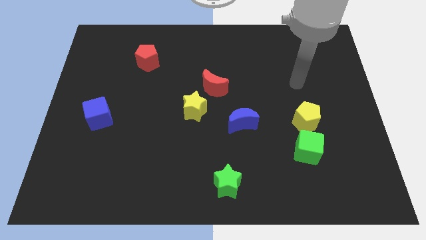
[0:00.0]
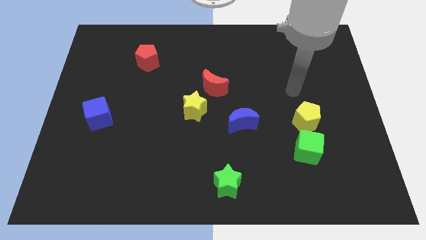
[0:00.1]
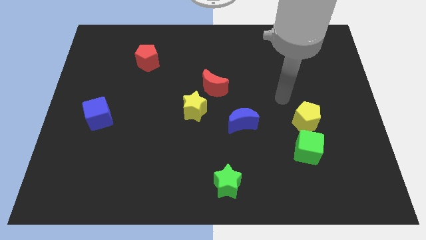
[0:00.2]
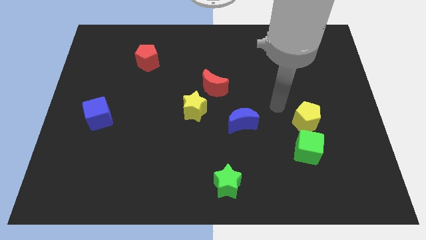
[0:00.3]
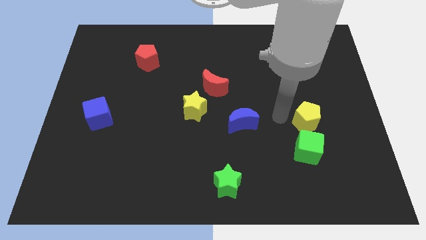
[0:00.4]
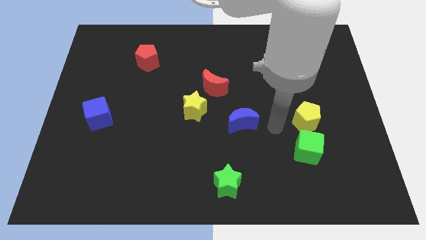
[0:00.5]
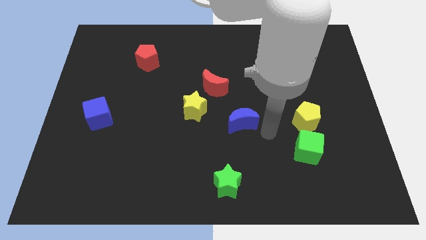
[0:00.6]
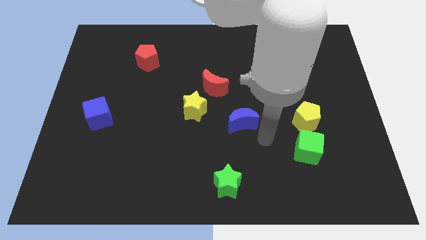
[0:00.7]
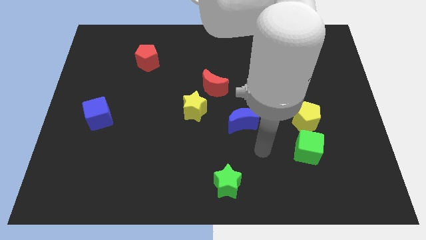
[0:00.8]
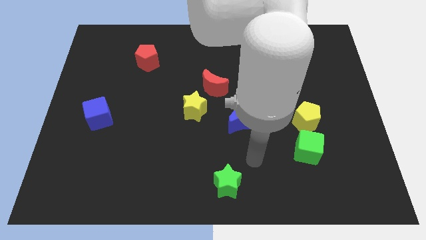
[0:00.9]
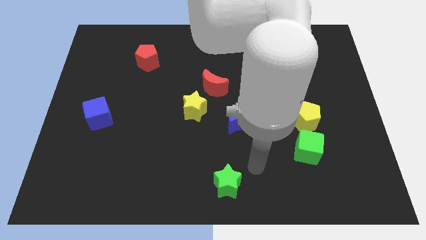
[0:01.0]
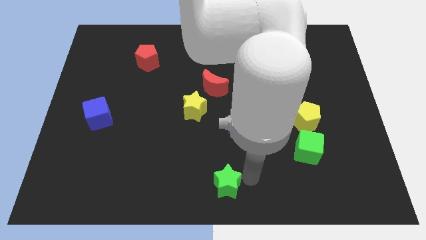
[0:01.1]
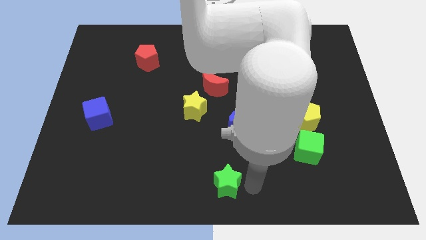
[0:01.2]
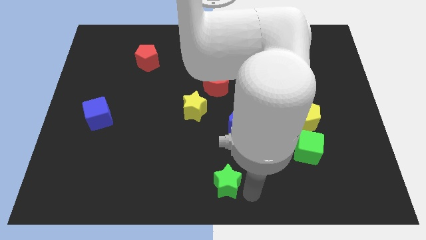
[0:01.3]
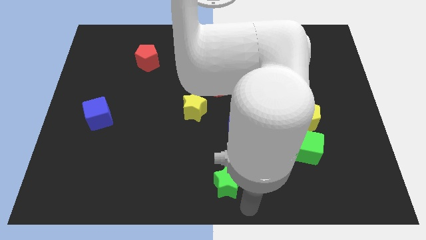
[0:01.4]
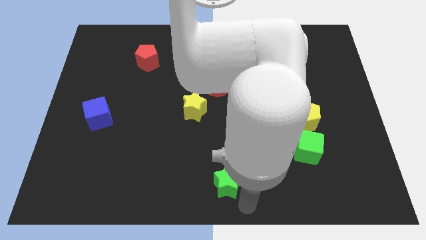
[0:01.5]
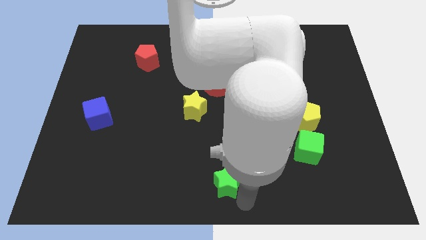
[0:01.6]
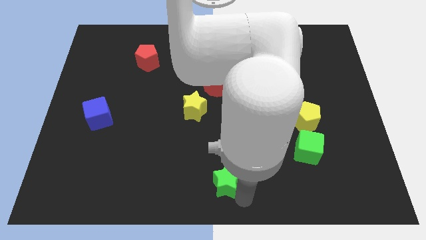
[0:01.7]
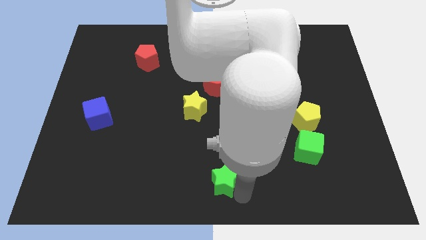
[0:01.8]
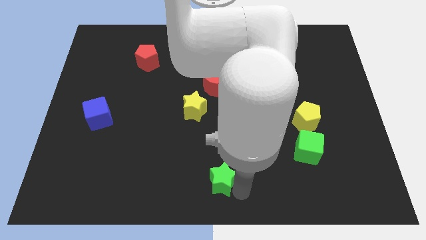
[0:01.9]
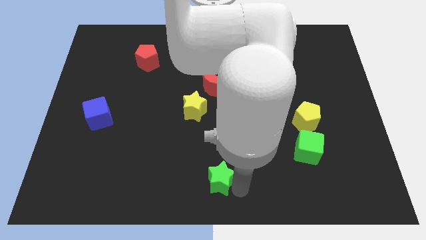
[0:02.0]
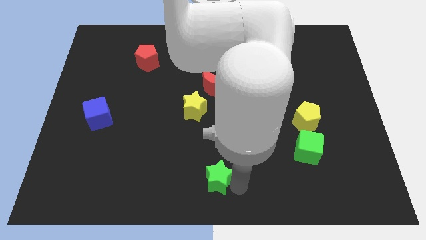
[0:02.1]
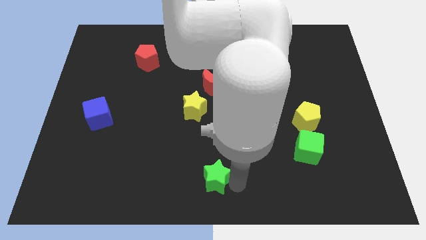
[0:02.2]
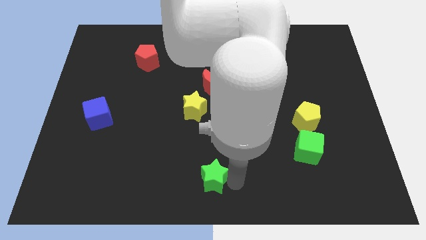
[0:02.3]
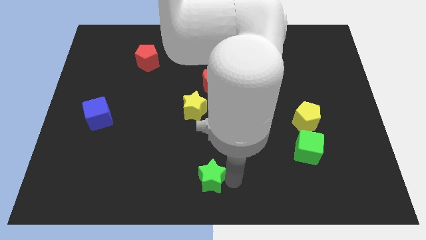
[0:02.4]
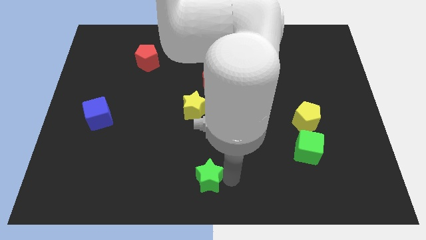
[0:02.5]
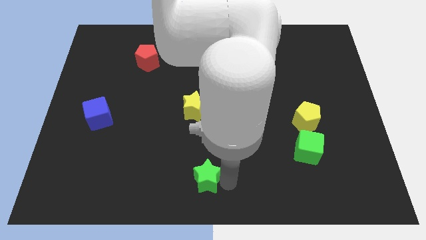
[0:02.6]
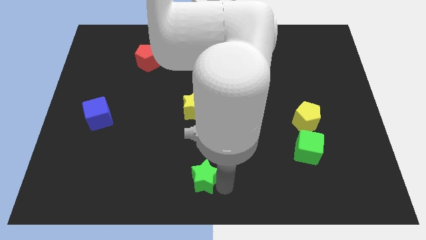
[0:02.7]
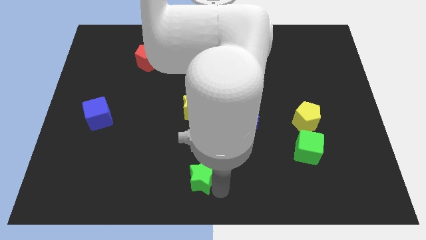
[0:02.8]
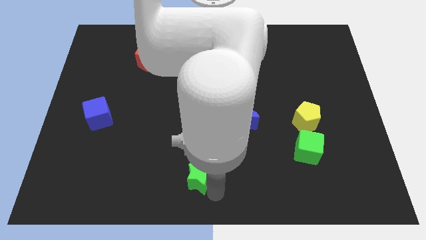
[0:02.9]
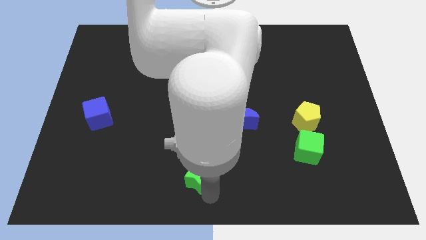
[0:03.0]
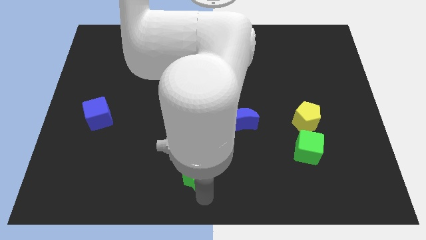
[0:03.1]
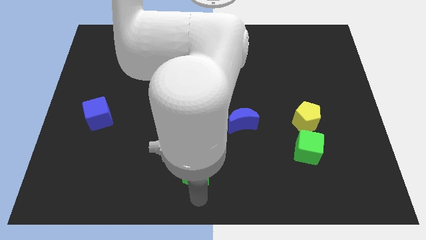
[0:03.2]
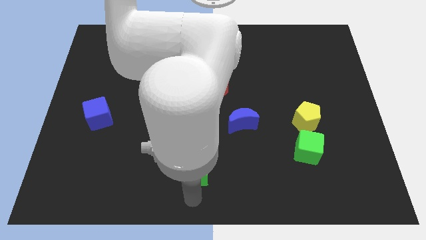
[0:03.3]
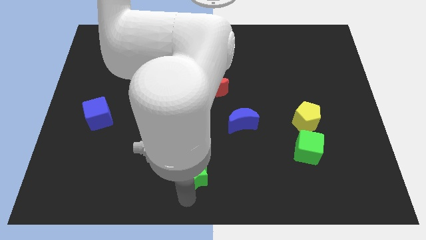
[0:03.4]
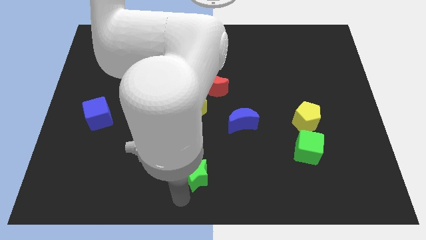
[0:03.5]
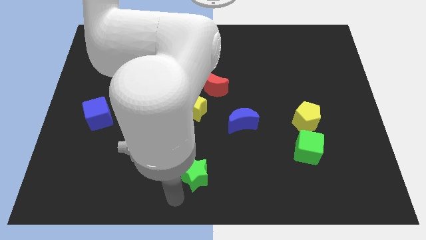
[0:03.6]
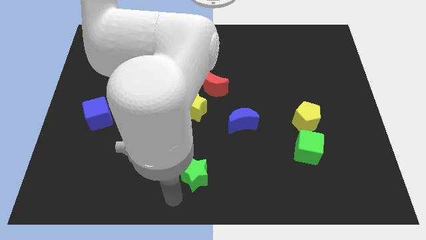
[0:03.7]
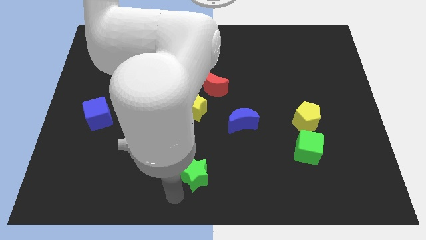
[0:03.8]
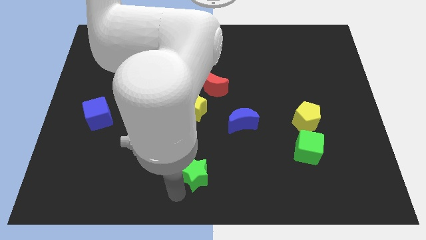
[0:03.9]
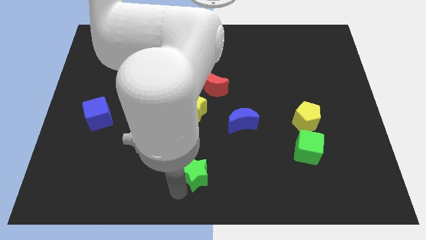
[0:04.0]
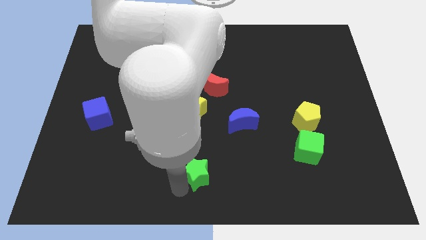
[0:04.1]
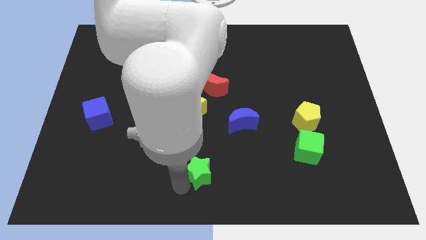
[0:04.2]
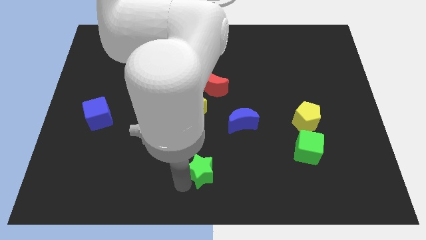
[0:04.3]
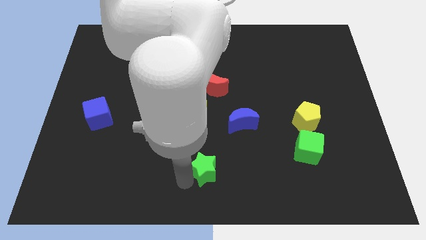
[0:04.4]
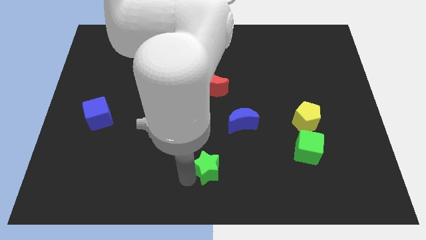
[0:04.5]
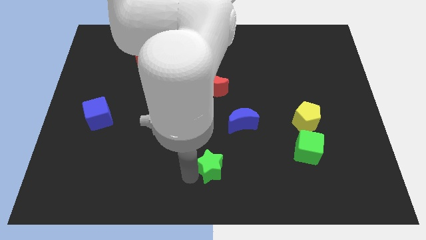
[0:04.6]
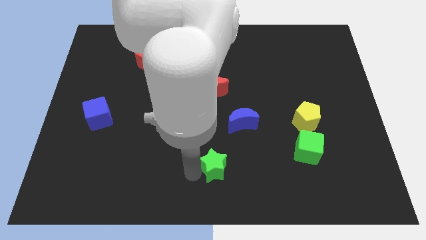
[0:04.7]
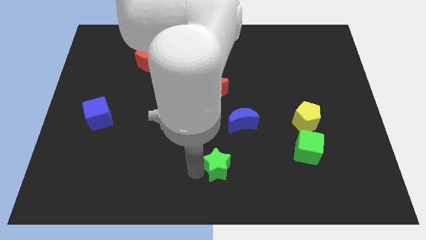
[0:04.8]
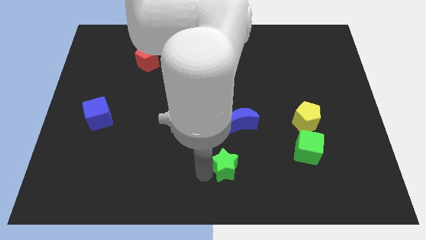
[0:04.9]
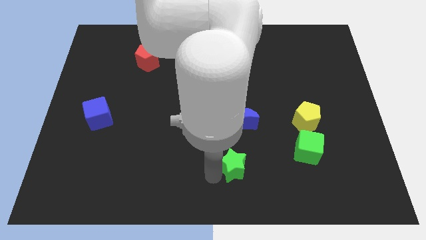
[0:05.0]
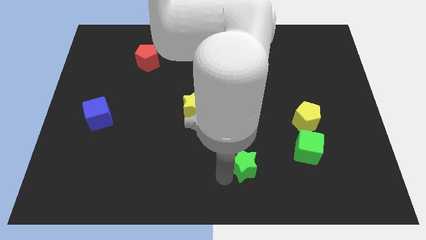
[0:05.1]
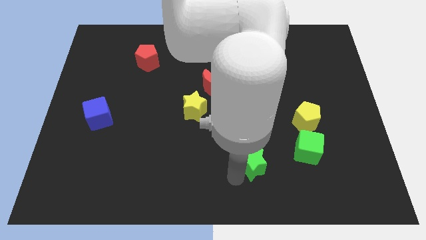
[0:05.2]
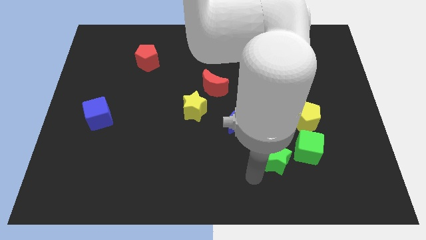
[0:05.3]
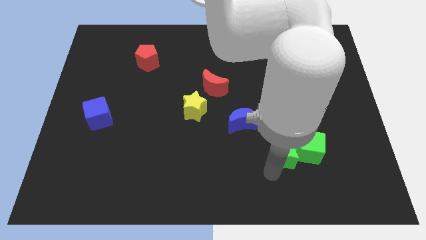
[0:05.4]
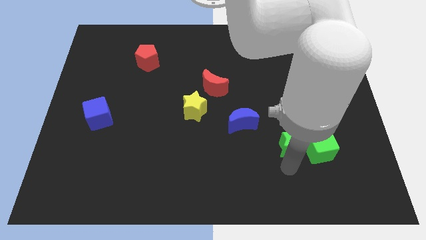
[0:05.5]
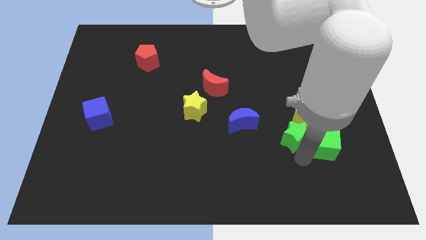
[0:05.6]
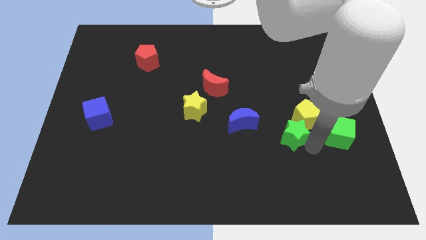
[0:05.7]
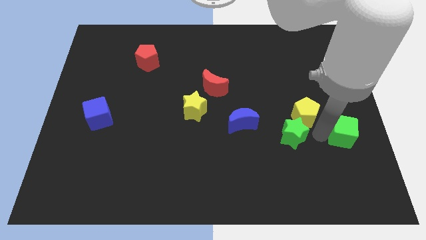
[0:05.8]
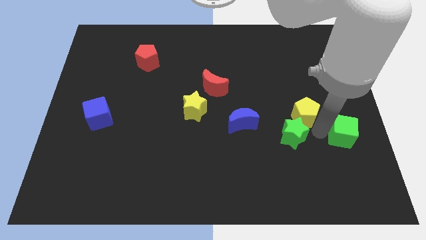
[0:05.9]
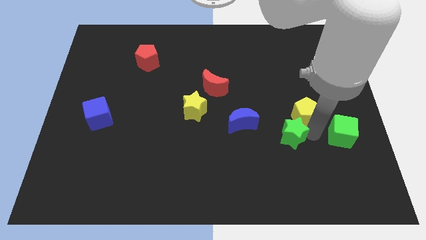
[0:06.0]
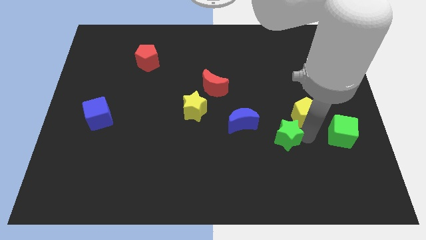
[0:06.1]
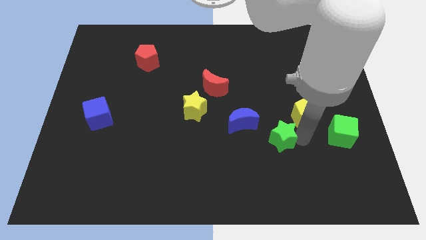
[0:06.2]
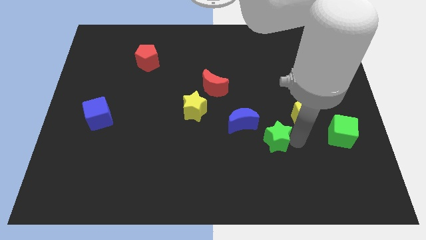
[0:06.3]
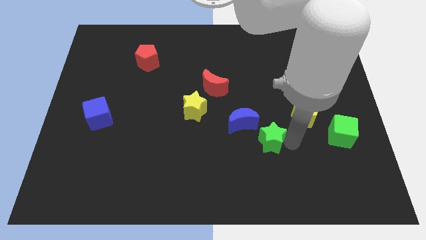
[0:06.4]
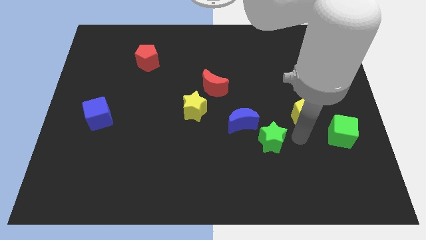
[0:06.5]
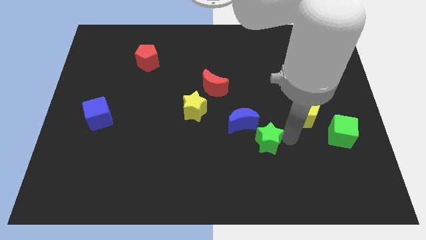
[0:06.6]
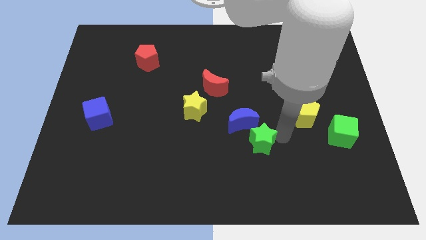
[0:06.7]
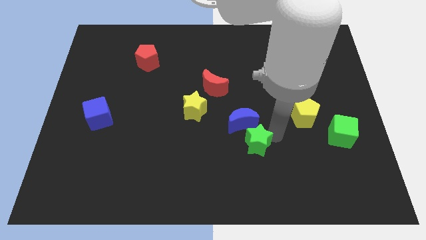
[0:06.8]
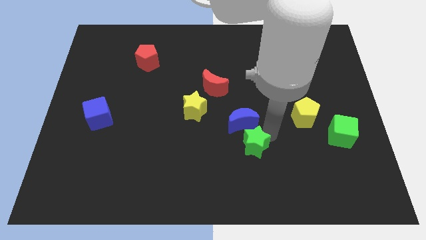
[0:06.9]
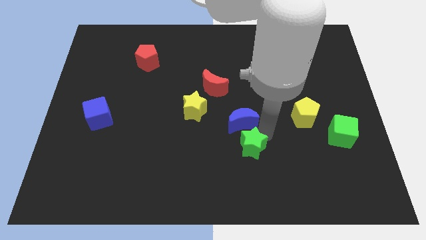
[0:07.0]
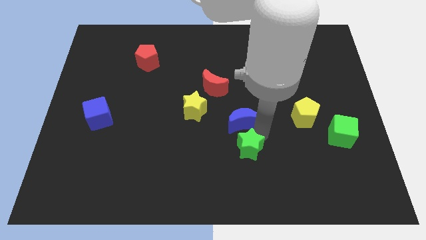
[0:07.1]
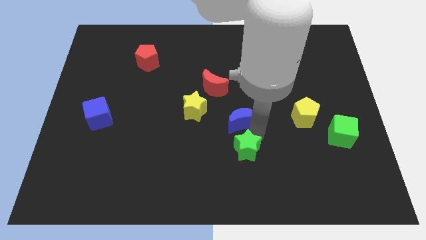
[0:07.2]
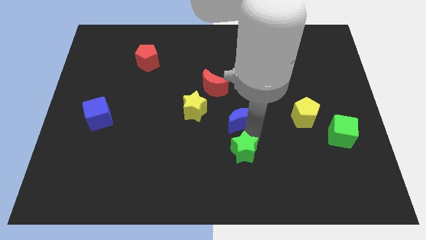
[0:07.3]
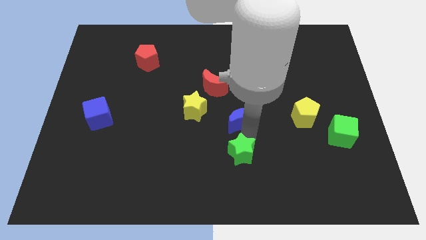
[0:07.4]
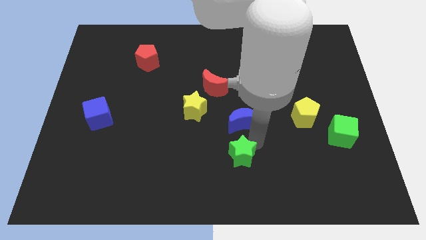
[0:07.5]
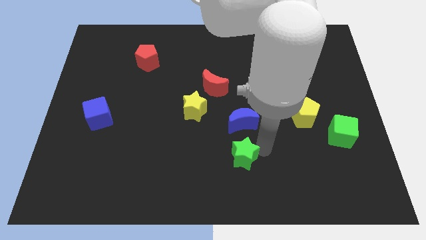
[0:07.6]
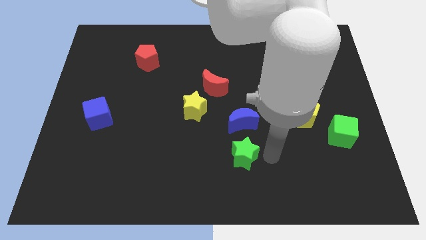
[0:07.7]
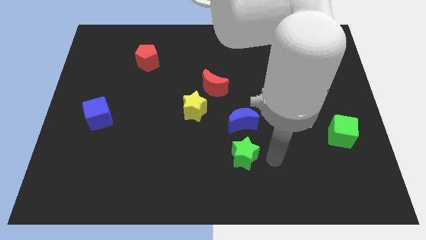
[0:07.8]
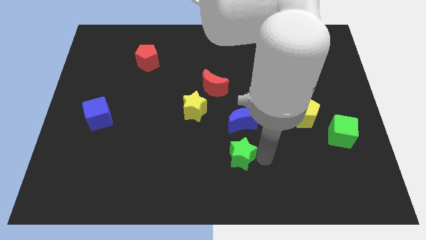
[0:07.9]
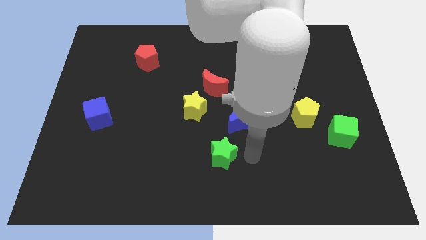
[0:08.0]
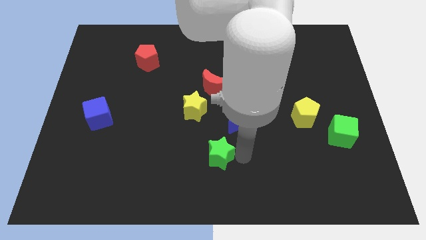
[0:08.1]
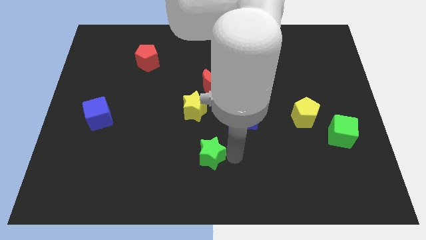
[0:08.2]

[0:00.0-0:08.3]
push the green star somewhat upwards and left
